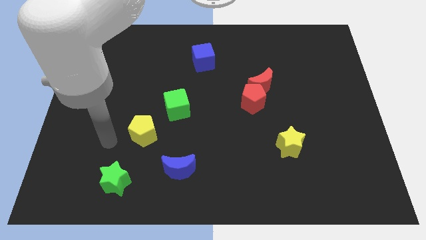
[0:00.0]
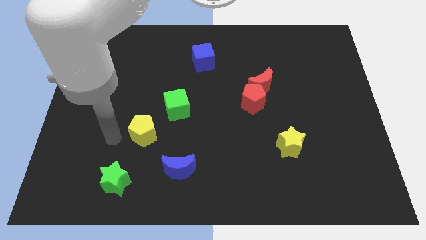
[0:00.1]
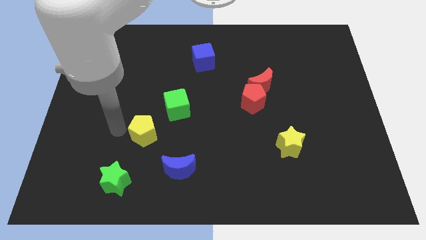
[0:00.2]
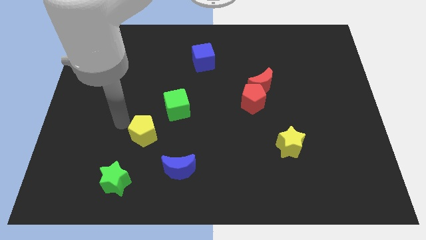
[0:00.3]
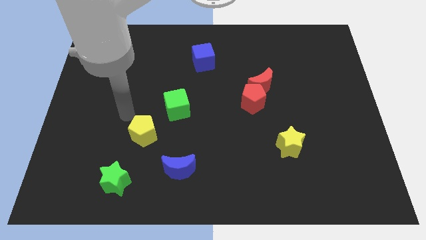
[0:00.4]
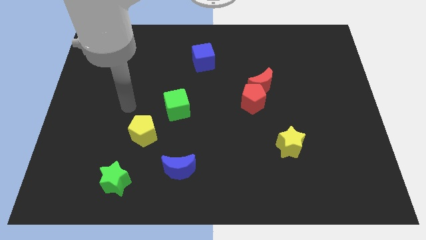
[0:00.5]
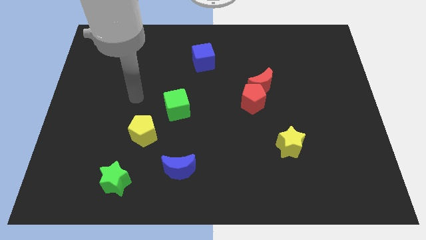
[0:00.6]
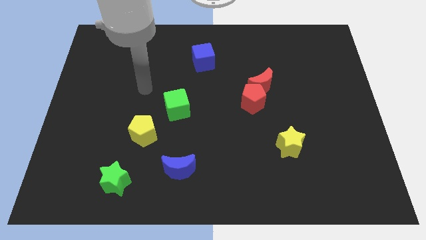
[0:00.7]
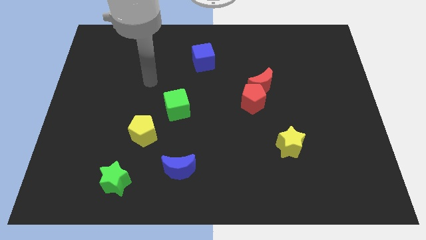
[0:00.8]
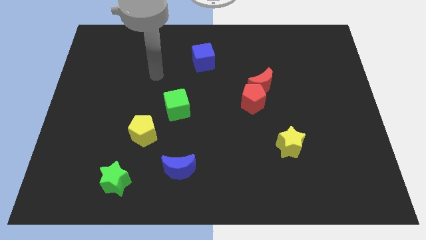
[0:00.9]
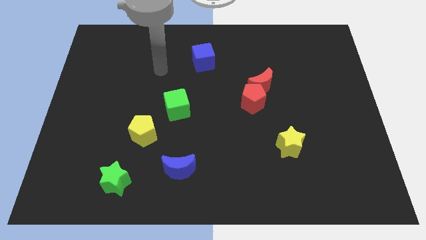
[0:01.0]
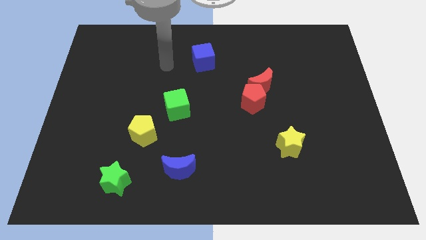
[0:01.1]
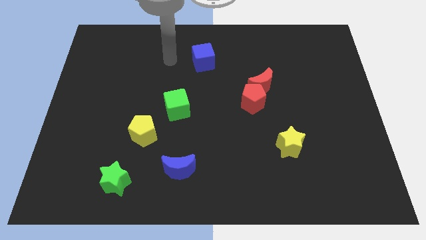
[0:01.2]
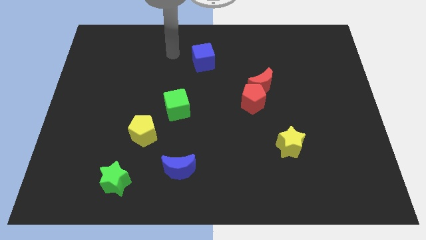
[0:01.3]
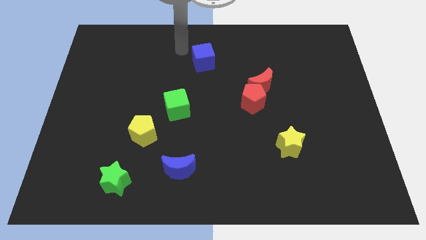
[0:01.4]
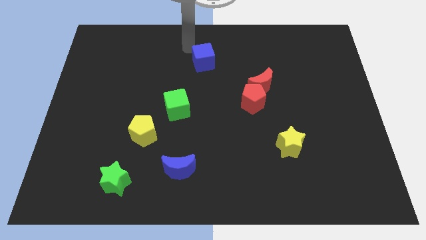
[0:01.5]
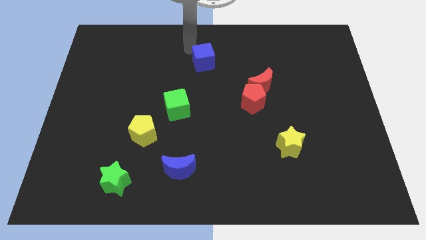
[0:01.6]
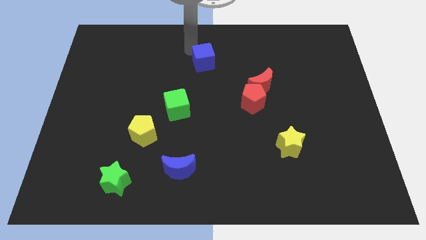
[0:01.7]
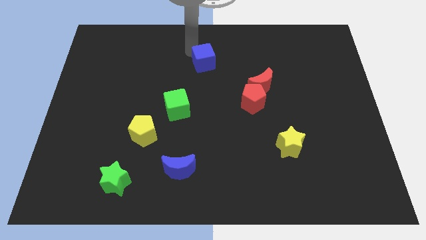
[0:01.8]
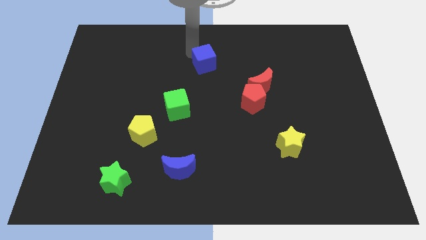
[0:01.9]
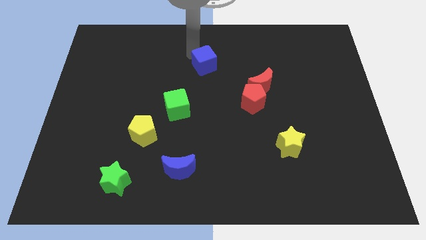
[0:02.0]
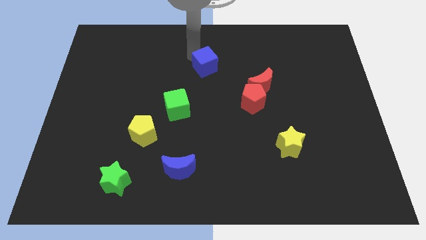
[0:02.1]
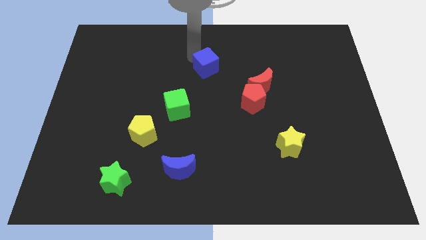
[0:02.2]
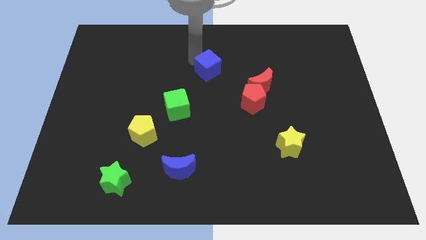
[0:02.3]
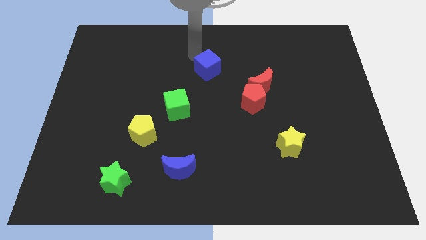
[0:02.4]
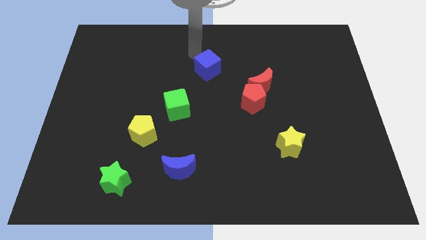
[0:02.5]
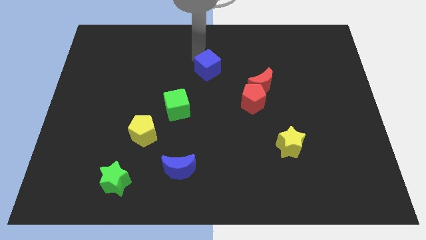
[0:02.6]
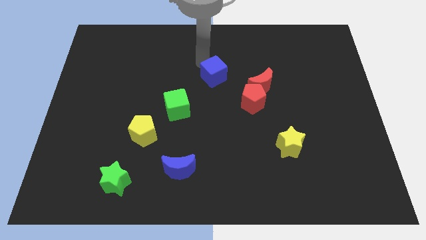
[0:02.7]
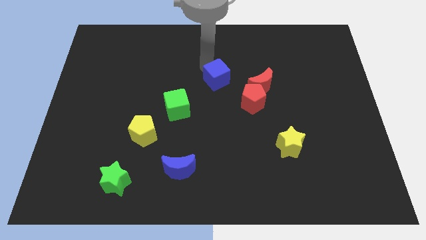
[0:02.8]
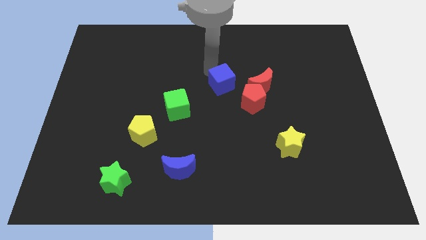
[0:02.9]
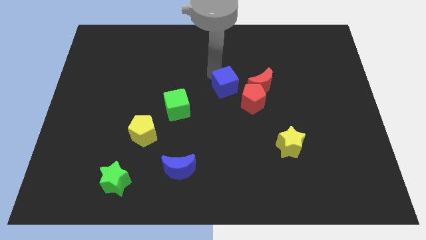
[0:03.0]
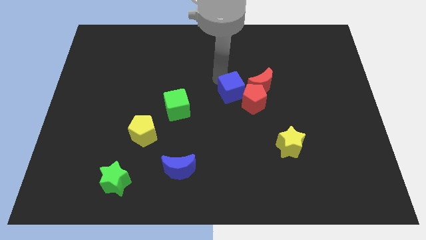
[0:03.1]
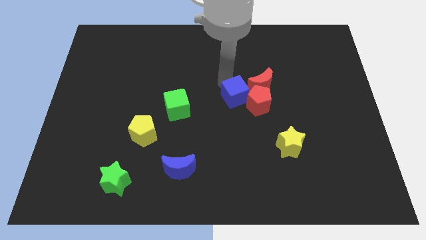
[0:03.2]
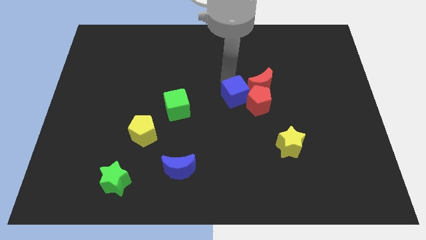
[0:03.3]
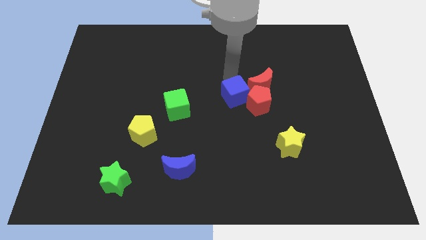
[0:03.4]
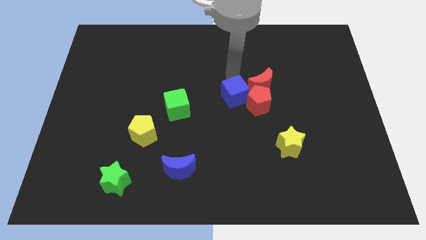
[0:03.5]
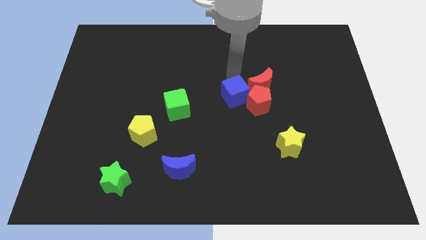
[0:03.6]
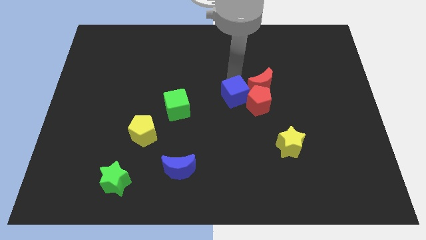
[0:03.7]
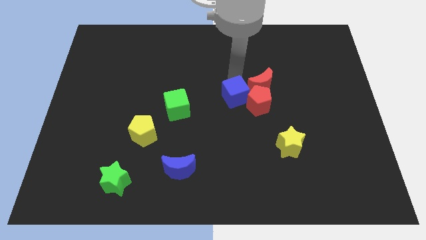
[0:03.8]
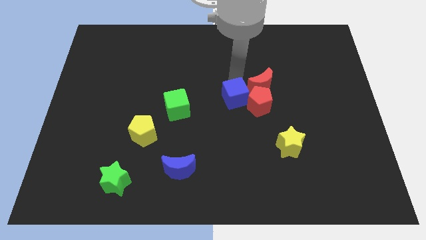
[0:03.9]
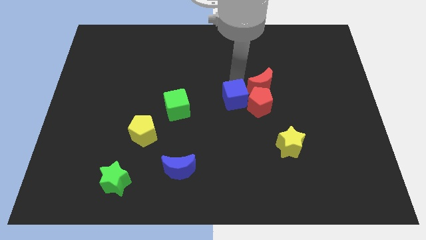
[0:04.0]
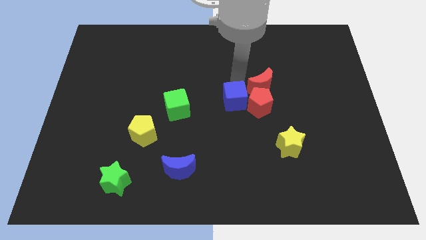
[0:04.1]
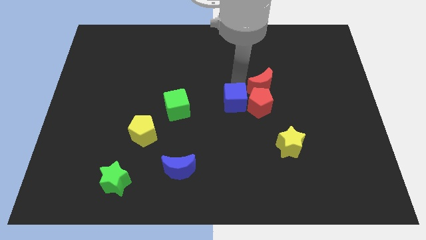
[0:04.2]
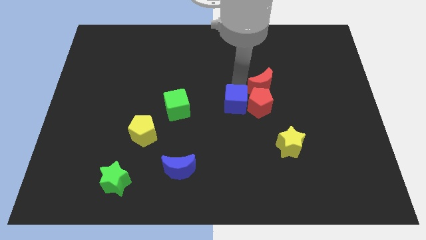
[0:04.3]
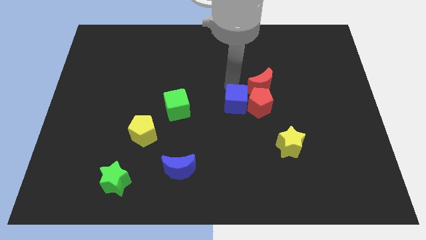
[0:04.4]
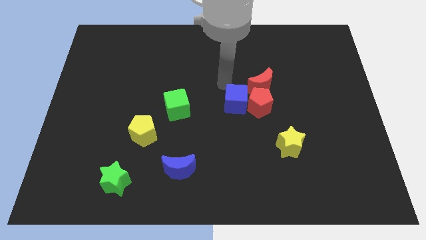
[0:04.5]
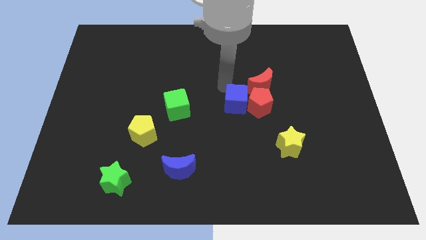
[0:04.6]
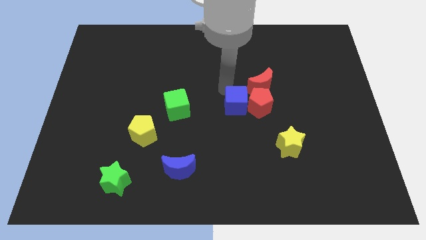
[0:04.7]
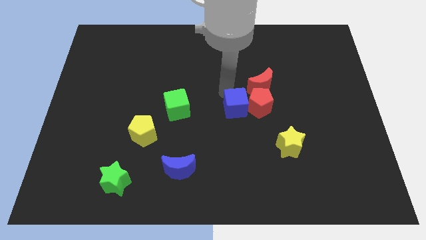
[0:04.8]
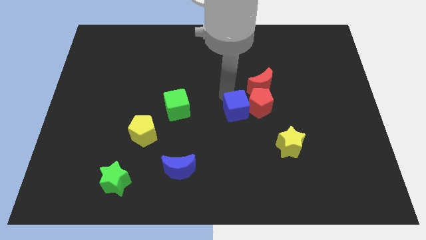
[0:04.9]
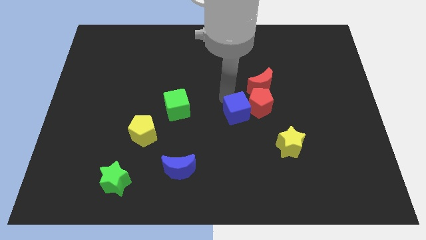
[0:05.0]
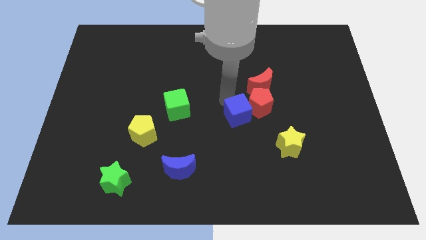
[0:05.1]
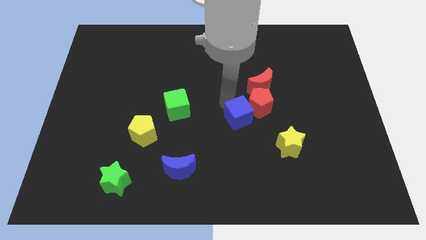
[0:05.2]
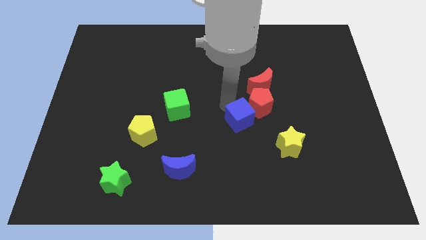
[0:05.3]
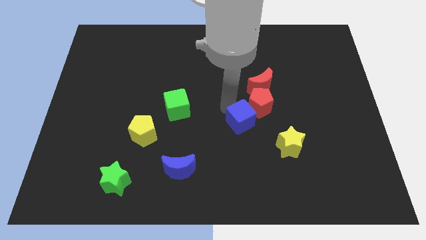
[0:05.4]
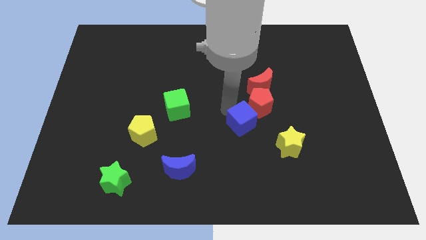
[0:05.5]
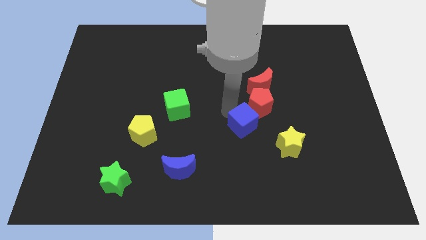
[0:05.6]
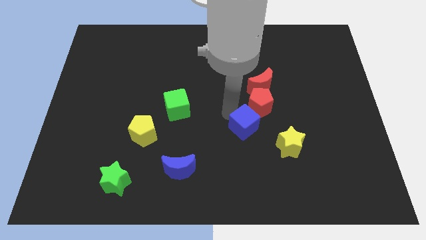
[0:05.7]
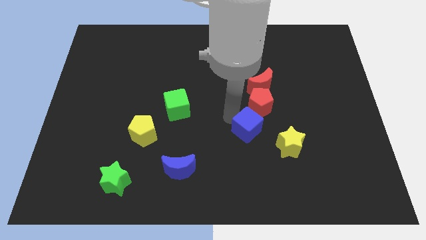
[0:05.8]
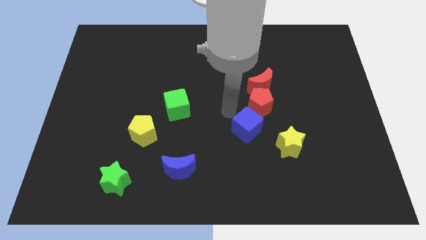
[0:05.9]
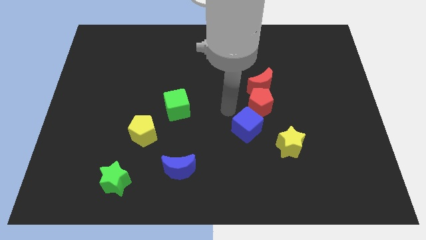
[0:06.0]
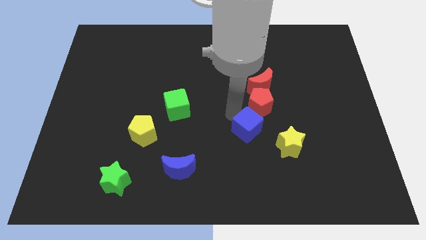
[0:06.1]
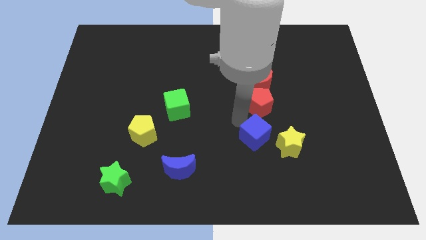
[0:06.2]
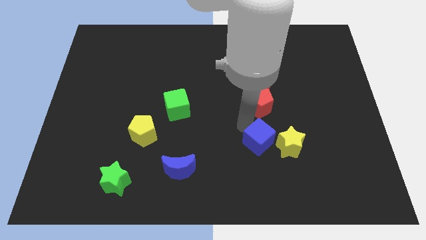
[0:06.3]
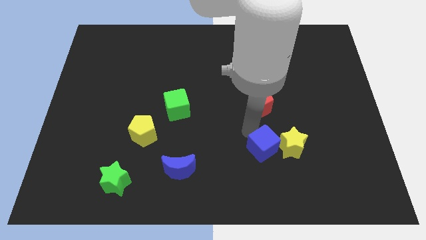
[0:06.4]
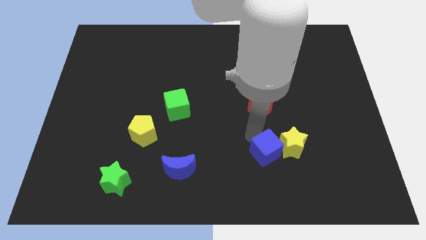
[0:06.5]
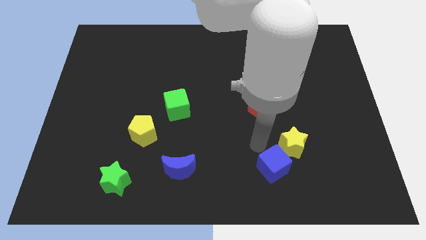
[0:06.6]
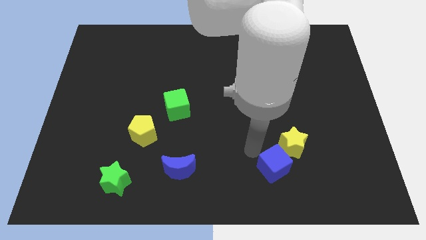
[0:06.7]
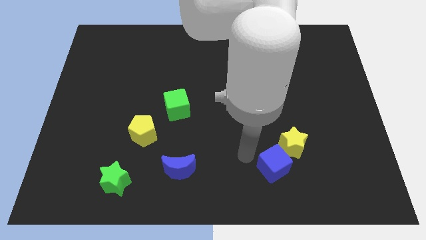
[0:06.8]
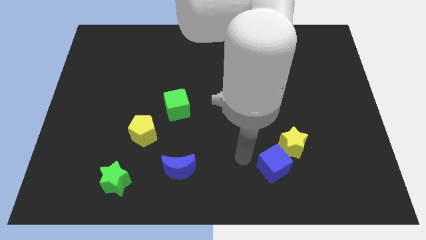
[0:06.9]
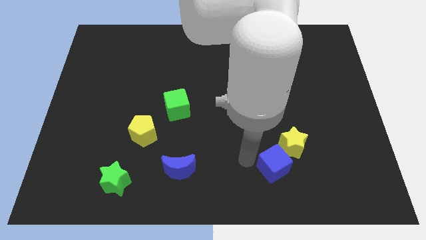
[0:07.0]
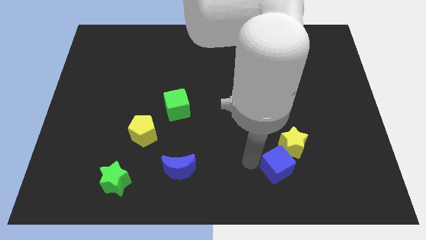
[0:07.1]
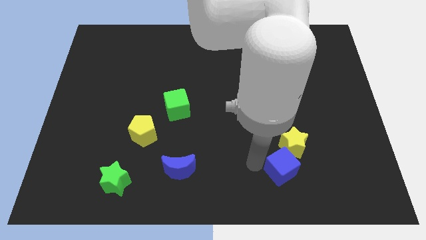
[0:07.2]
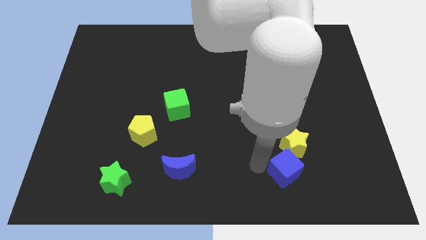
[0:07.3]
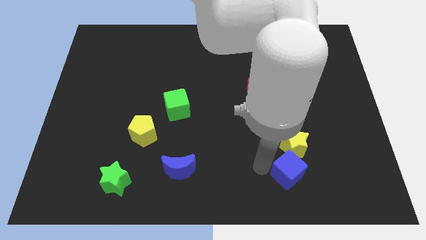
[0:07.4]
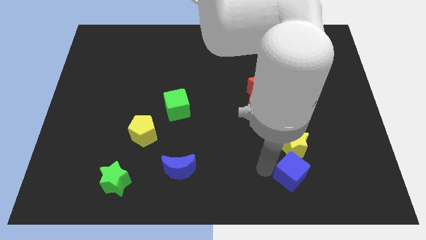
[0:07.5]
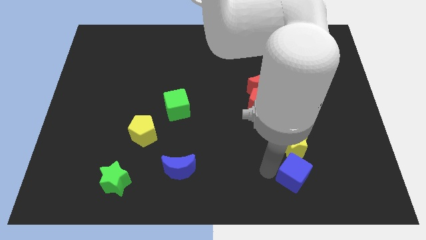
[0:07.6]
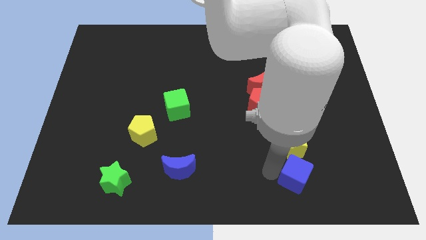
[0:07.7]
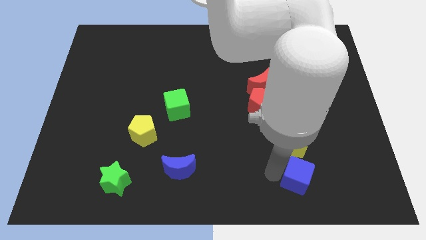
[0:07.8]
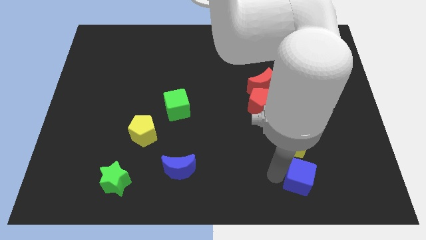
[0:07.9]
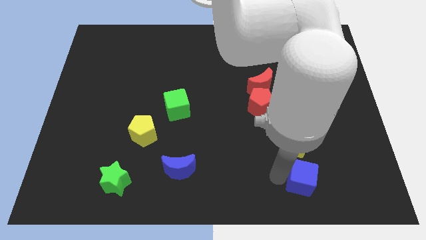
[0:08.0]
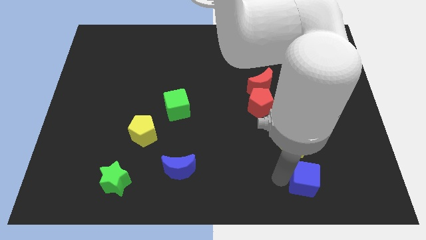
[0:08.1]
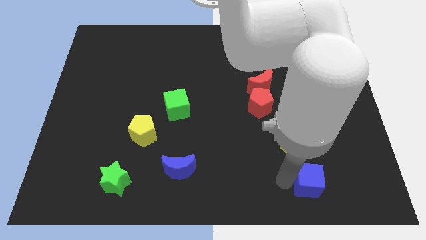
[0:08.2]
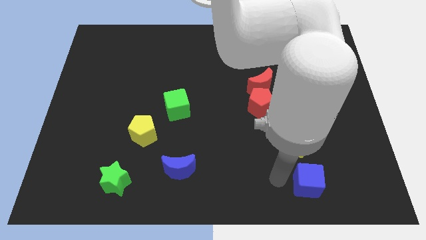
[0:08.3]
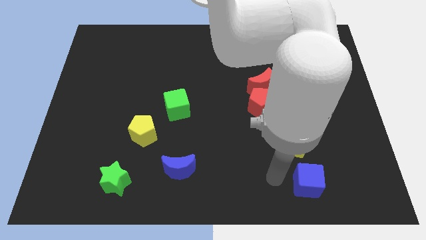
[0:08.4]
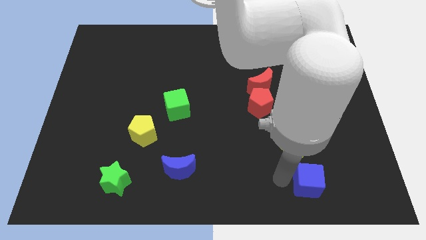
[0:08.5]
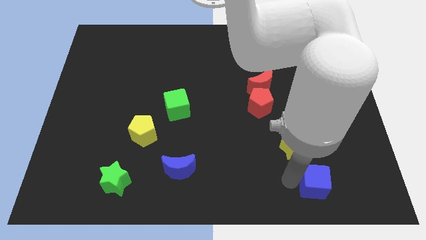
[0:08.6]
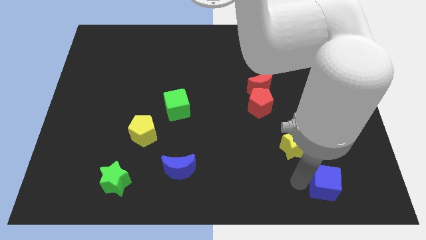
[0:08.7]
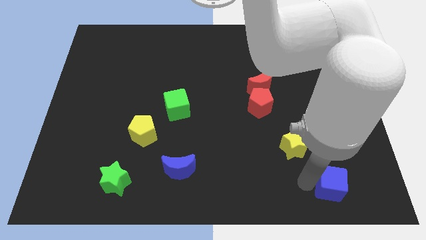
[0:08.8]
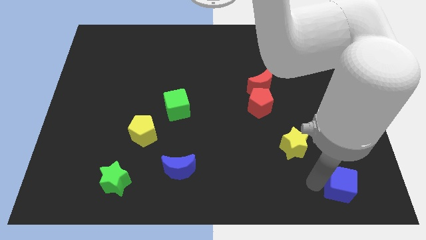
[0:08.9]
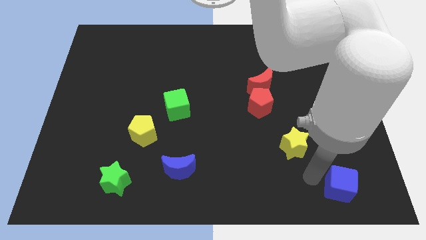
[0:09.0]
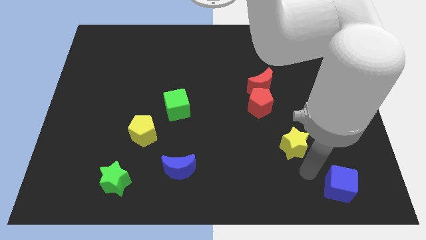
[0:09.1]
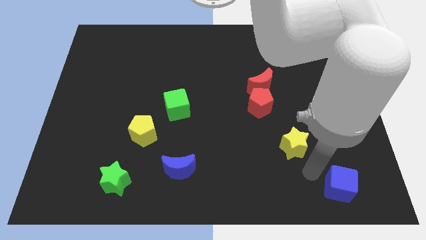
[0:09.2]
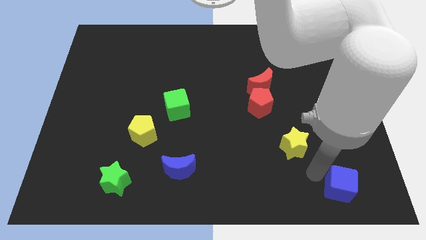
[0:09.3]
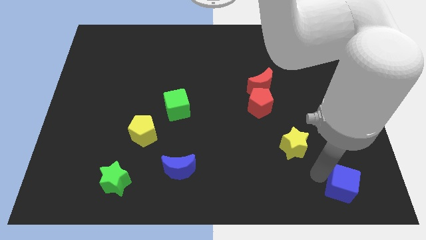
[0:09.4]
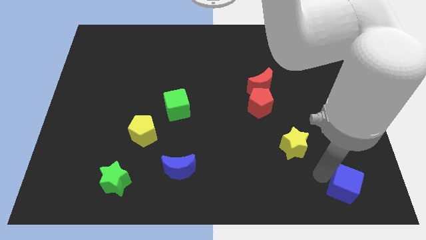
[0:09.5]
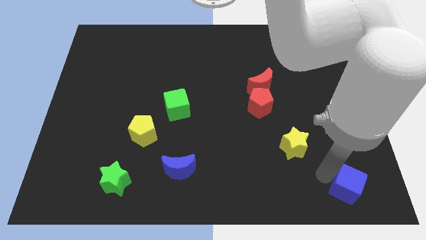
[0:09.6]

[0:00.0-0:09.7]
slide the blue cube to the bottom right of the board
